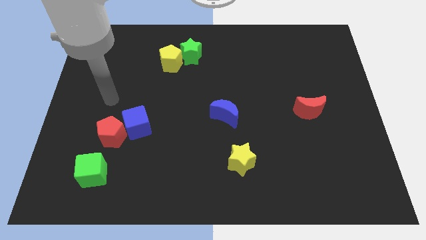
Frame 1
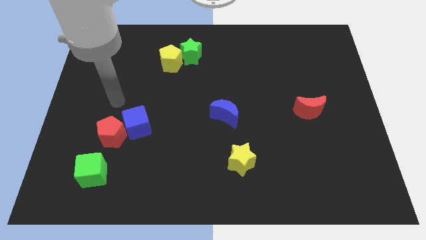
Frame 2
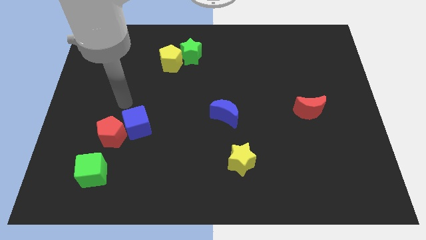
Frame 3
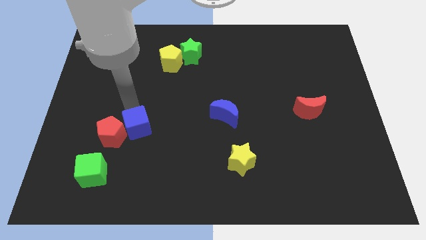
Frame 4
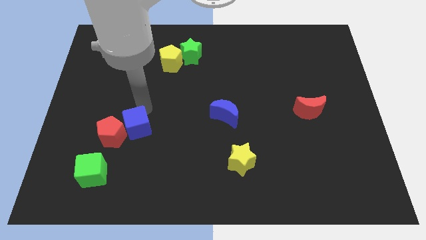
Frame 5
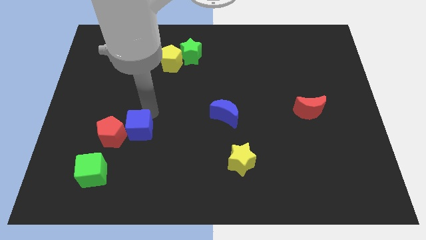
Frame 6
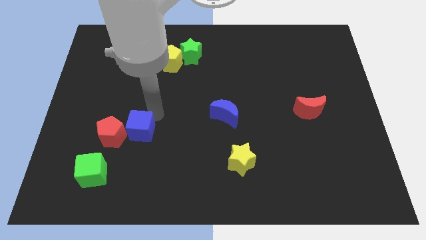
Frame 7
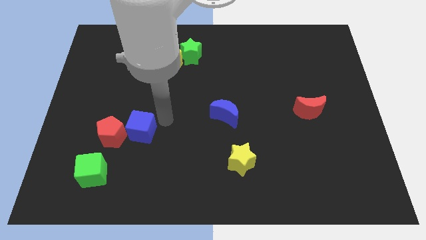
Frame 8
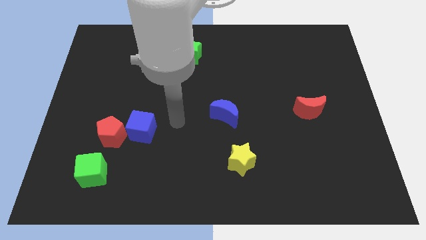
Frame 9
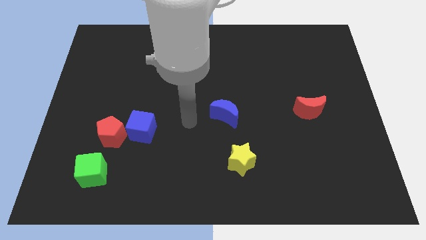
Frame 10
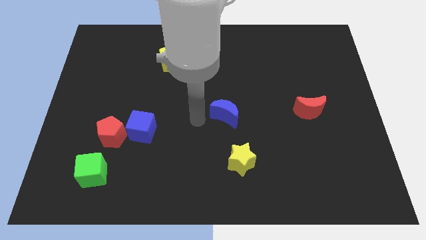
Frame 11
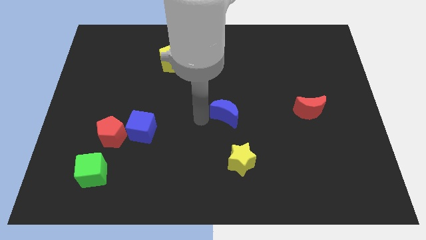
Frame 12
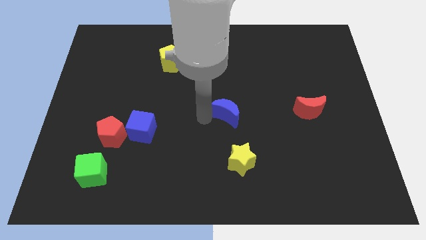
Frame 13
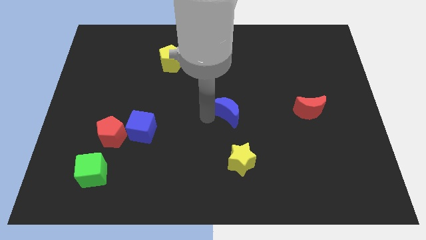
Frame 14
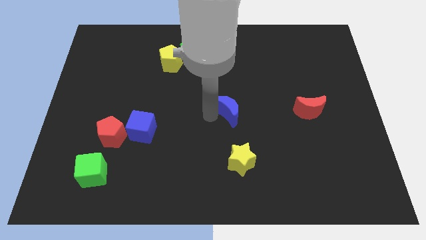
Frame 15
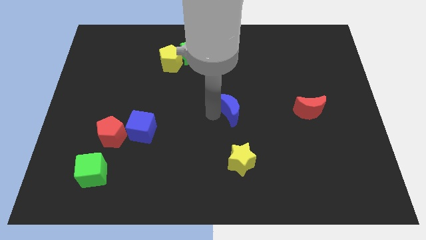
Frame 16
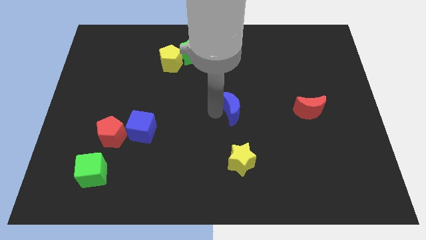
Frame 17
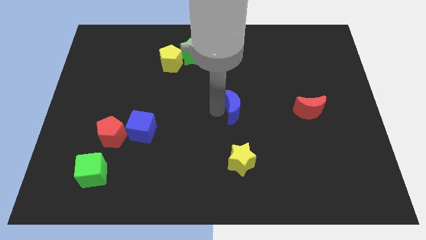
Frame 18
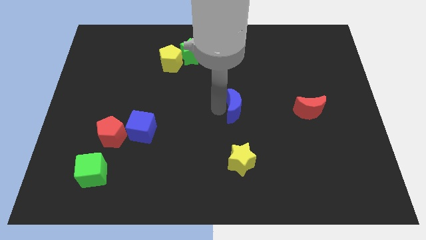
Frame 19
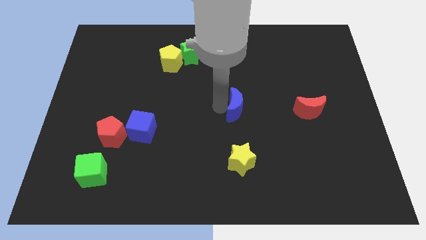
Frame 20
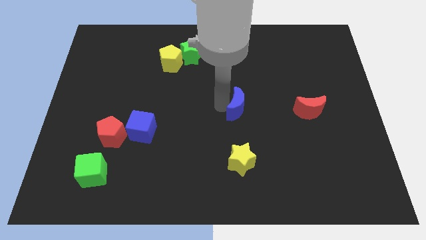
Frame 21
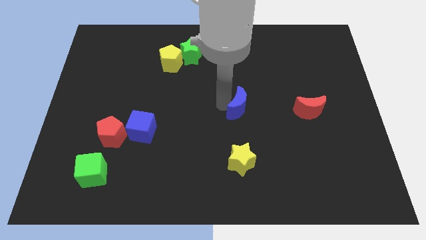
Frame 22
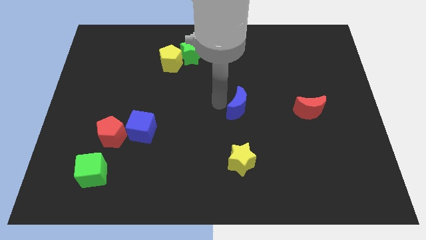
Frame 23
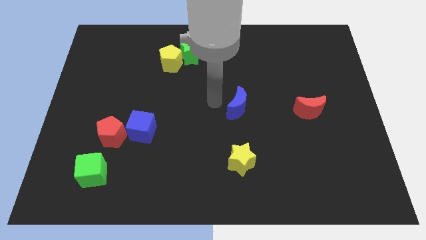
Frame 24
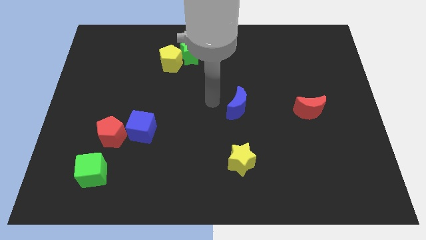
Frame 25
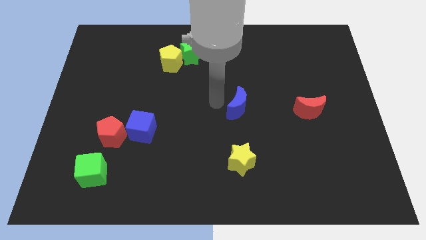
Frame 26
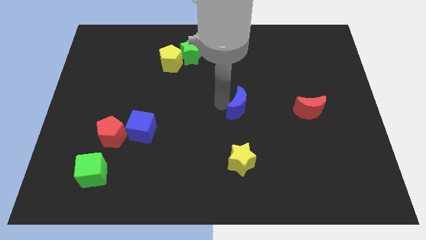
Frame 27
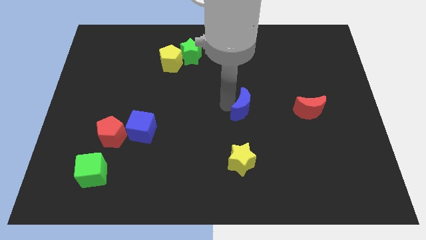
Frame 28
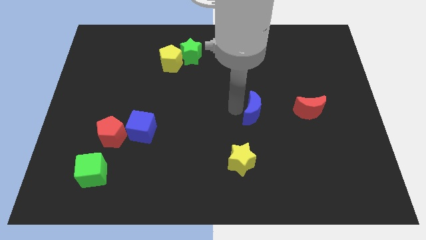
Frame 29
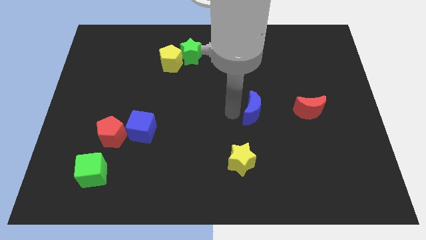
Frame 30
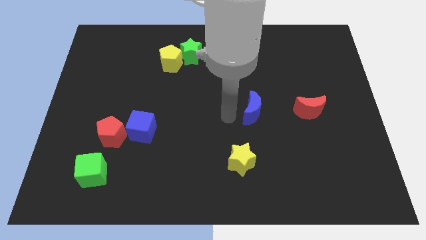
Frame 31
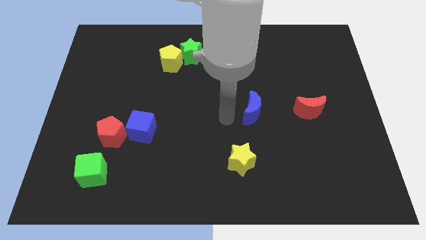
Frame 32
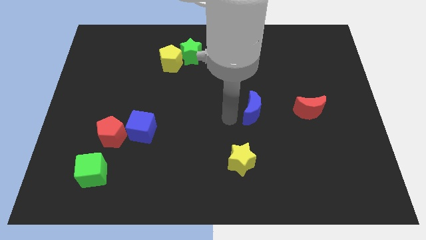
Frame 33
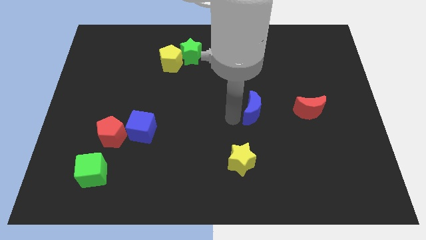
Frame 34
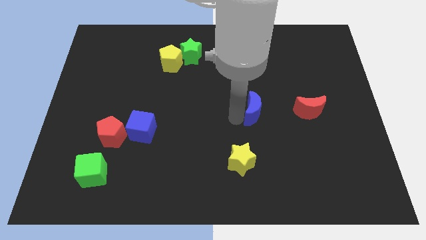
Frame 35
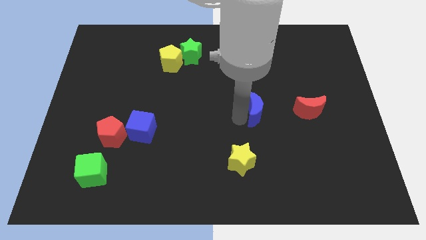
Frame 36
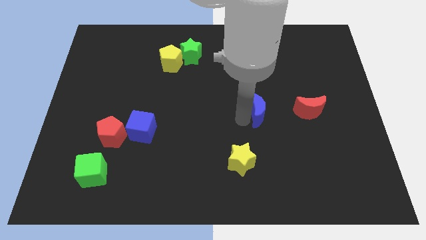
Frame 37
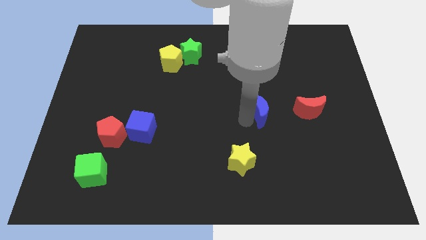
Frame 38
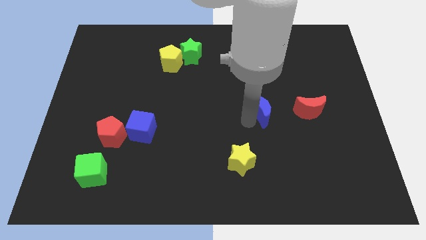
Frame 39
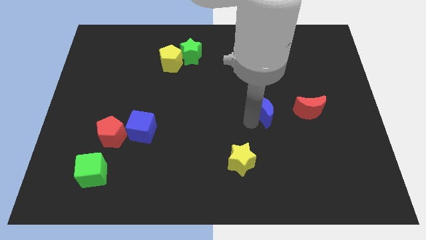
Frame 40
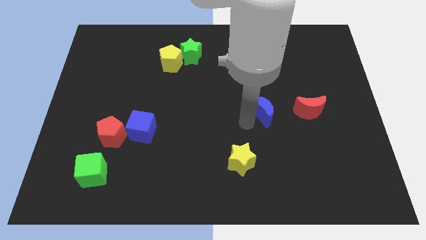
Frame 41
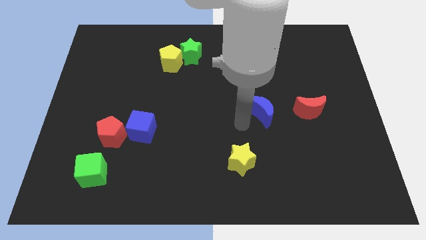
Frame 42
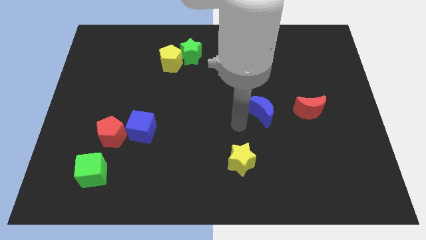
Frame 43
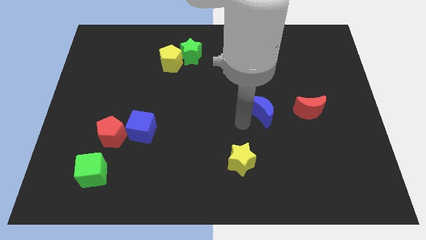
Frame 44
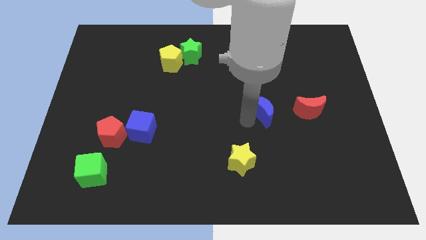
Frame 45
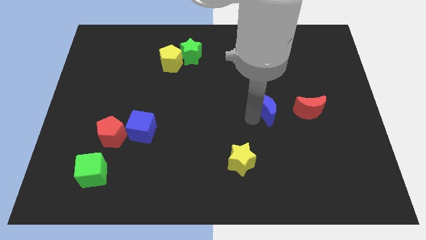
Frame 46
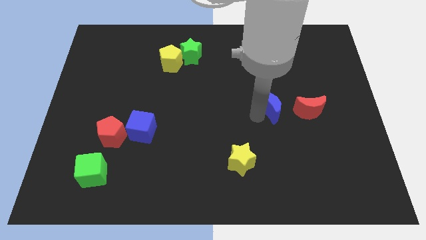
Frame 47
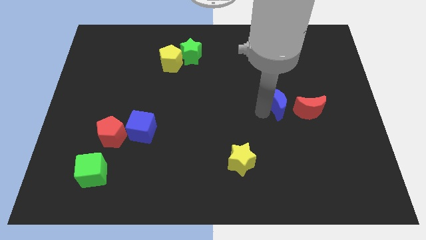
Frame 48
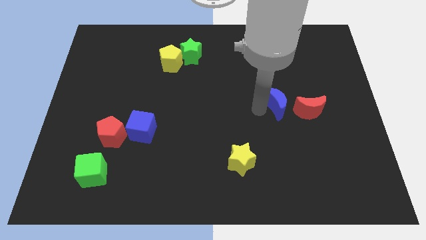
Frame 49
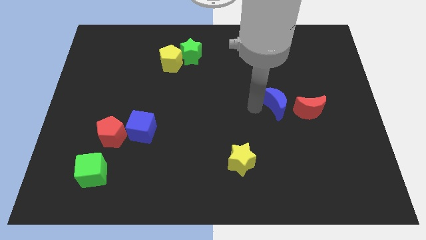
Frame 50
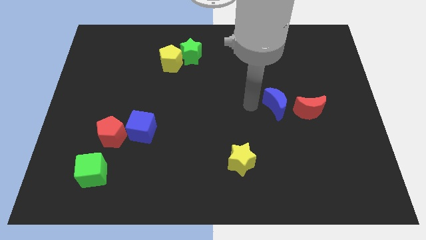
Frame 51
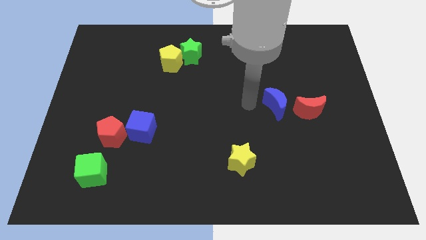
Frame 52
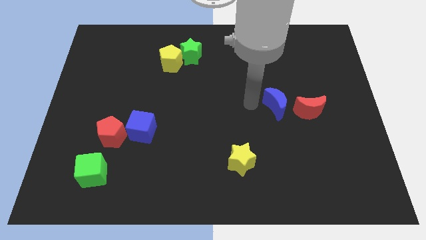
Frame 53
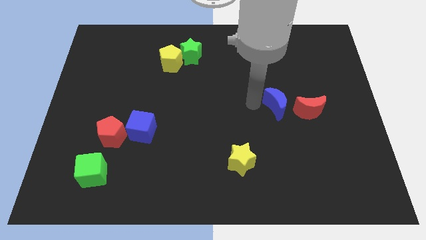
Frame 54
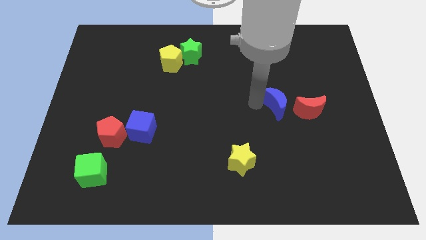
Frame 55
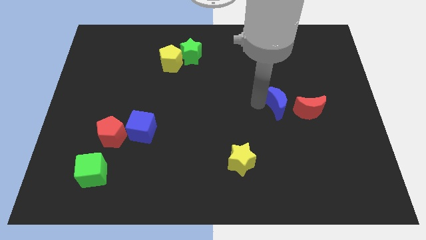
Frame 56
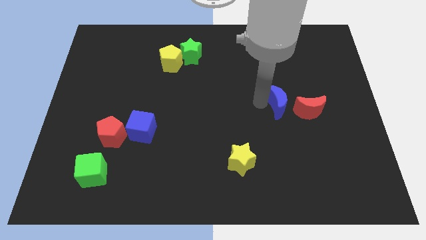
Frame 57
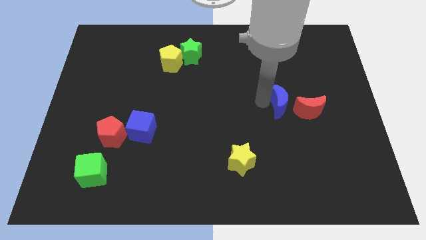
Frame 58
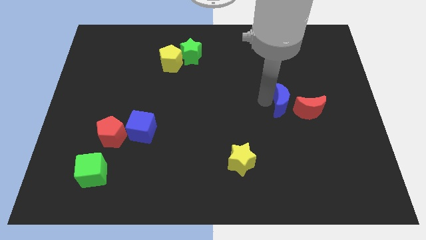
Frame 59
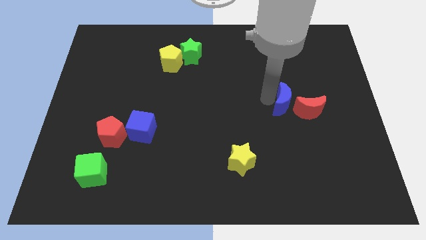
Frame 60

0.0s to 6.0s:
push the blue moon close to the red moon

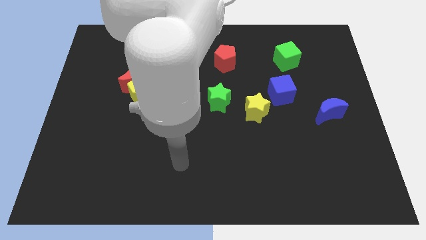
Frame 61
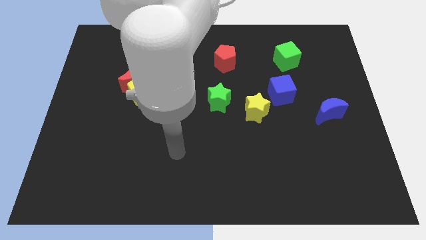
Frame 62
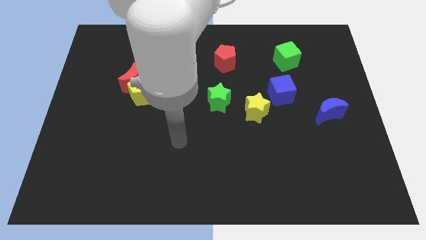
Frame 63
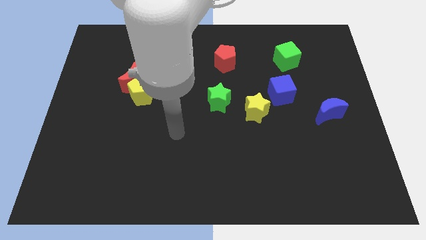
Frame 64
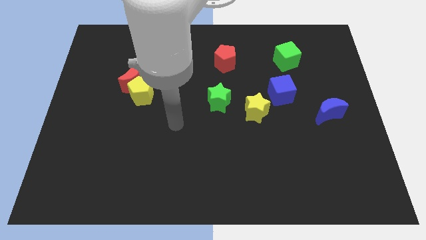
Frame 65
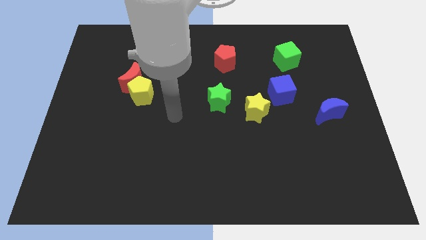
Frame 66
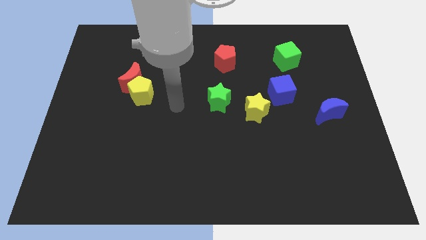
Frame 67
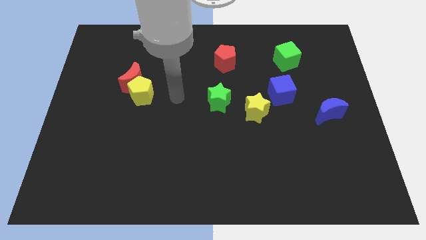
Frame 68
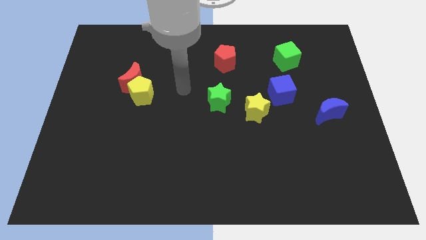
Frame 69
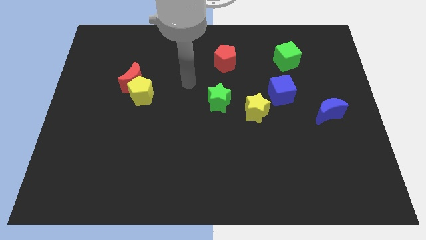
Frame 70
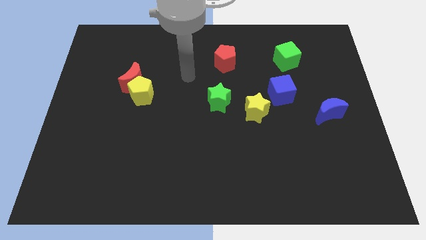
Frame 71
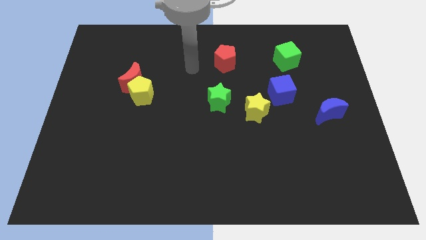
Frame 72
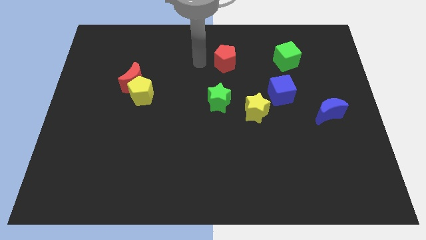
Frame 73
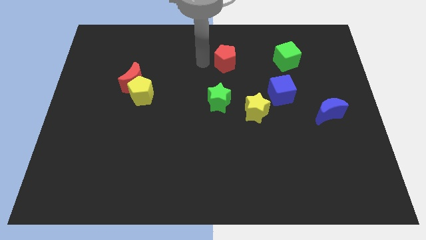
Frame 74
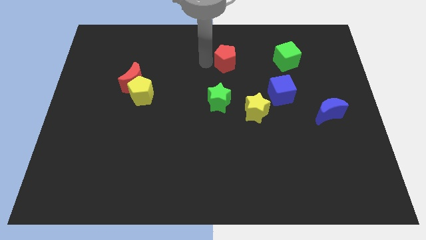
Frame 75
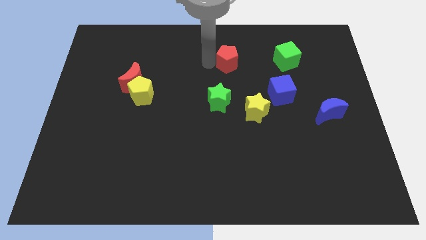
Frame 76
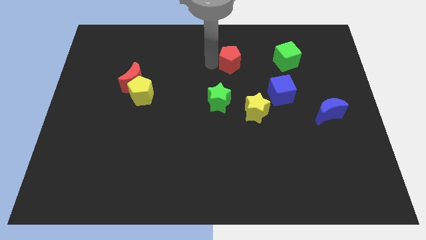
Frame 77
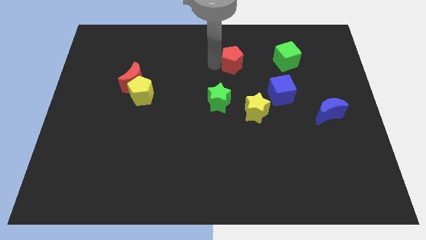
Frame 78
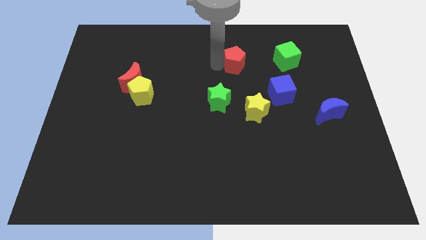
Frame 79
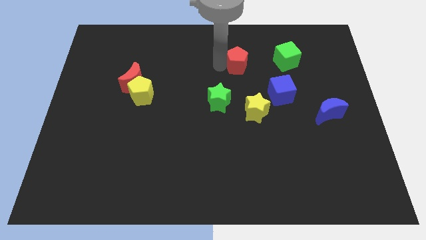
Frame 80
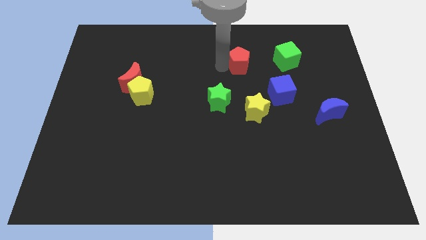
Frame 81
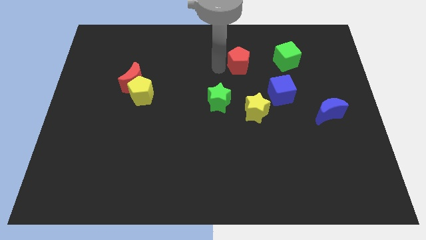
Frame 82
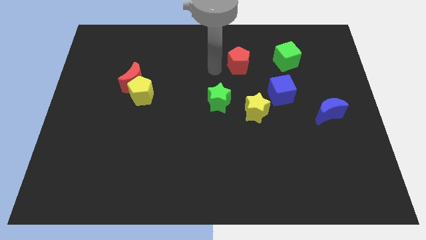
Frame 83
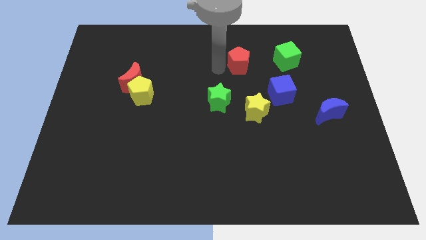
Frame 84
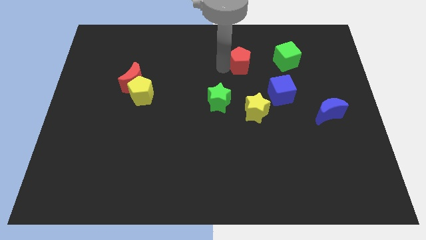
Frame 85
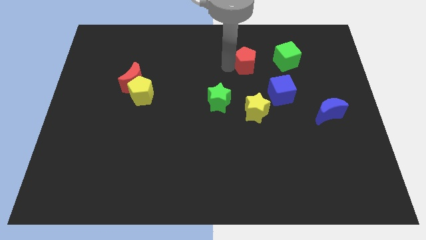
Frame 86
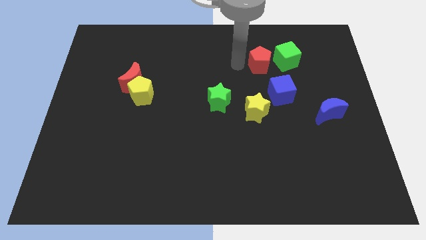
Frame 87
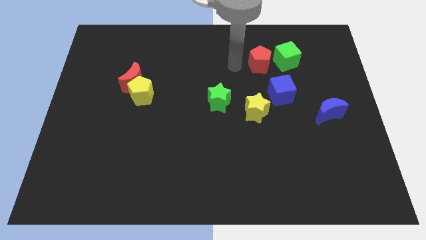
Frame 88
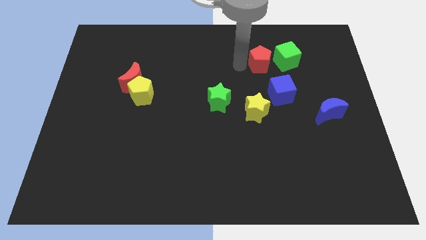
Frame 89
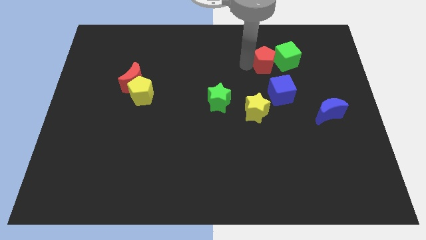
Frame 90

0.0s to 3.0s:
put the red pentagon next to the green cube
